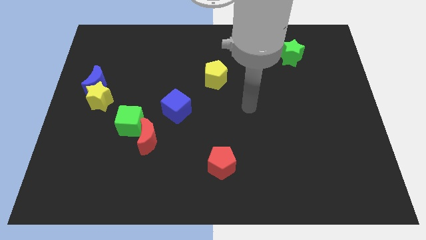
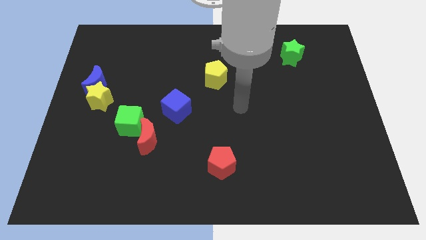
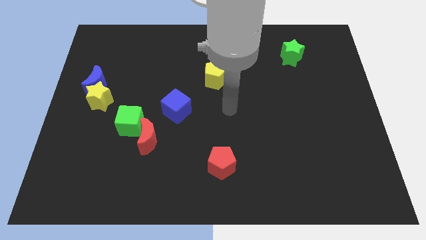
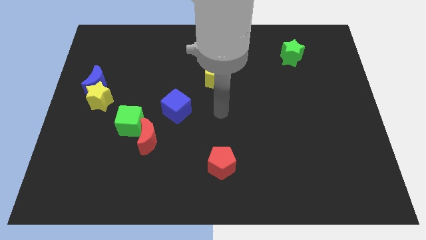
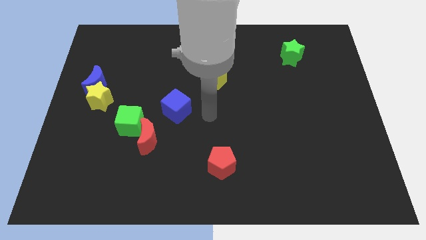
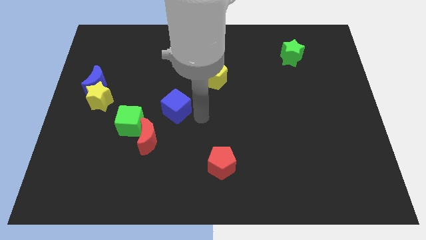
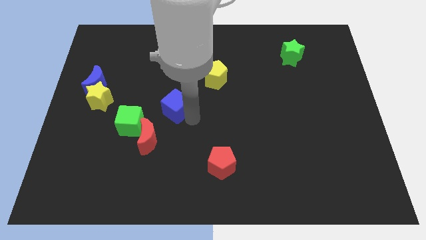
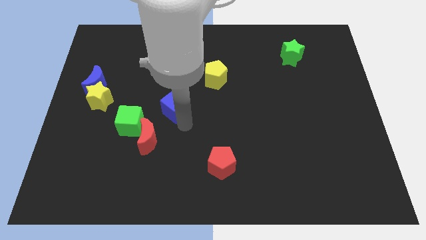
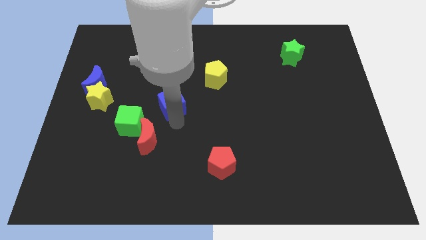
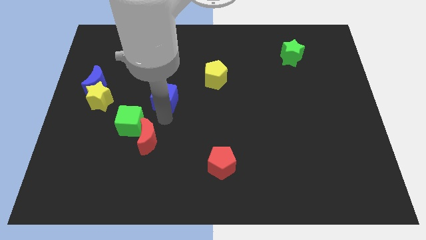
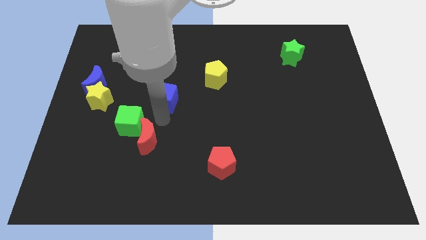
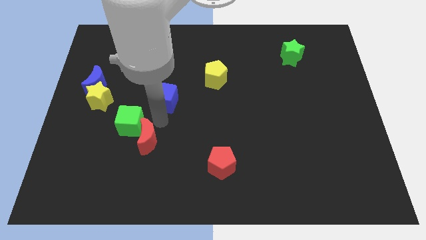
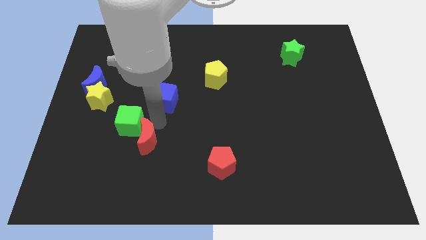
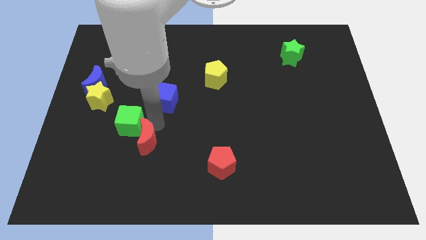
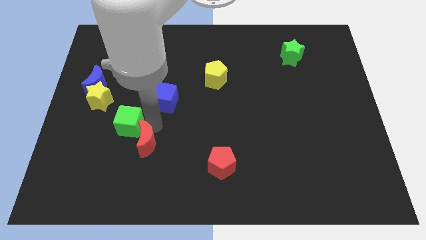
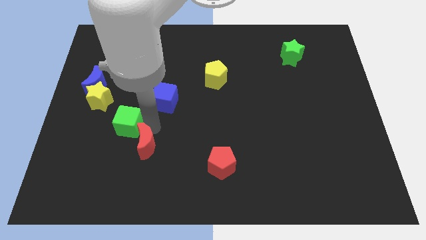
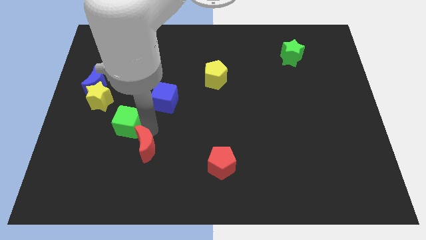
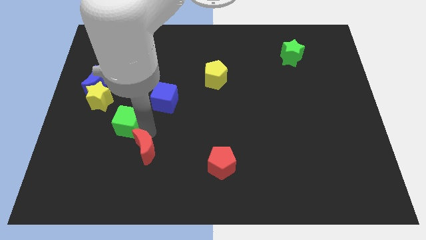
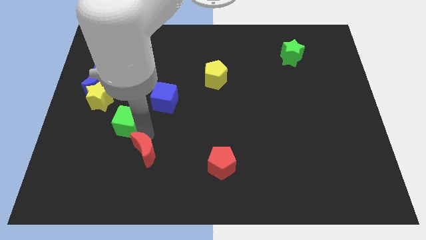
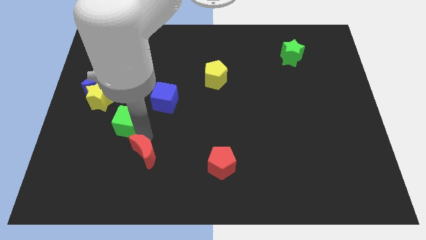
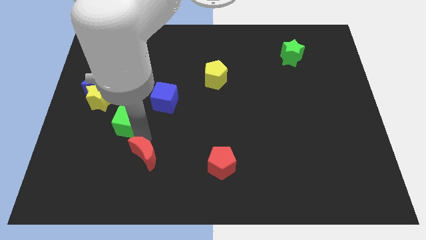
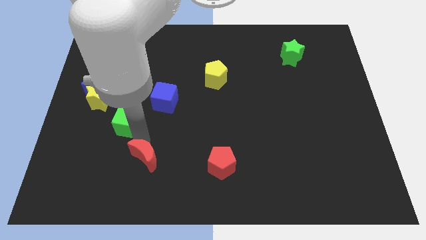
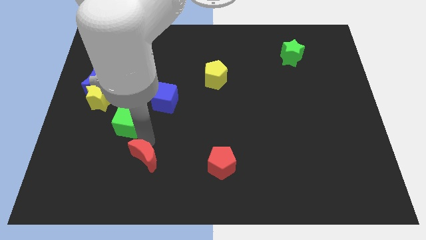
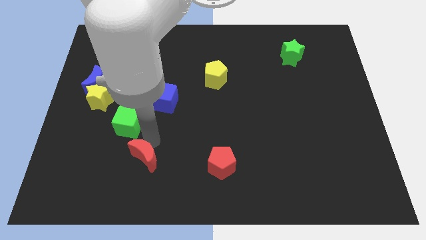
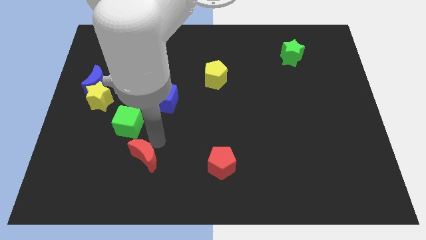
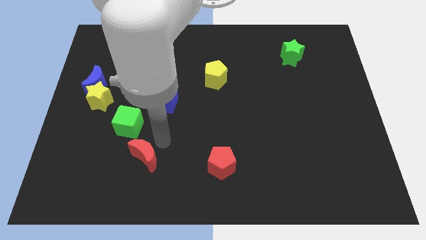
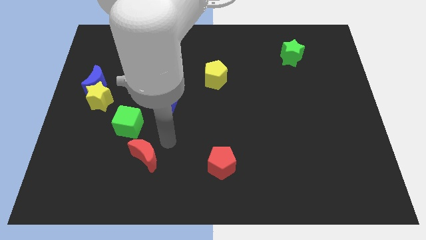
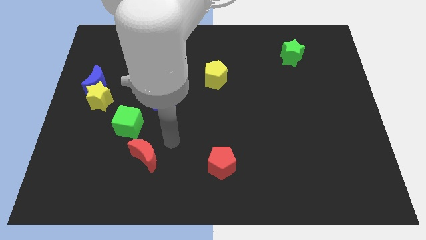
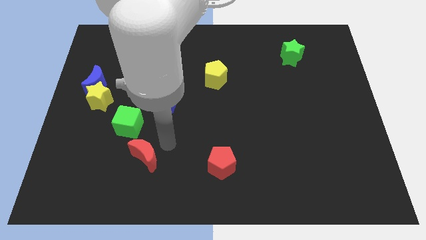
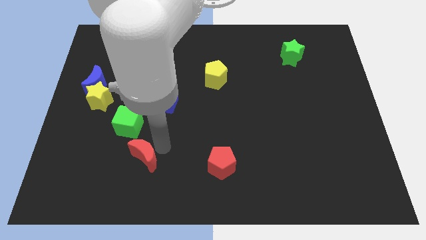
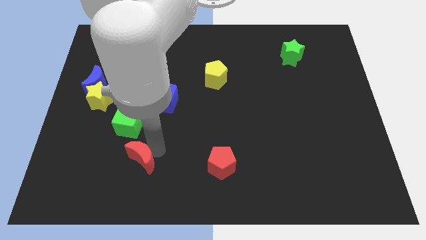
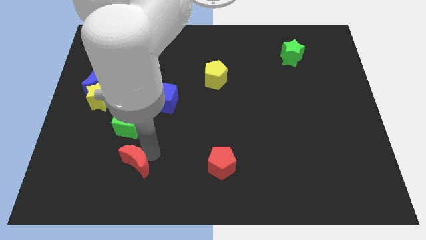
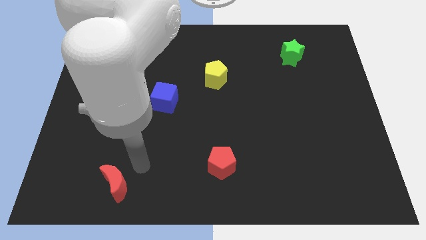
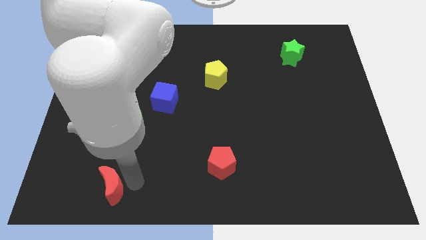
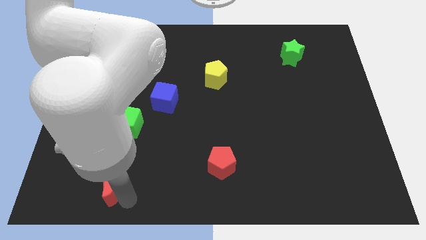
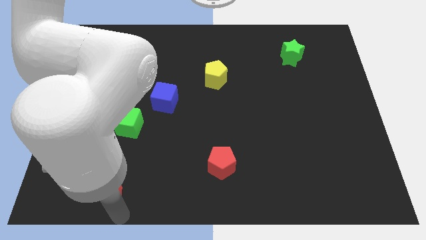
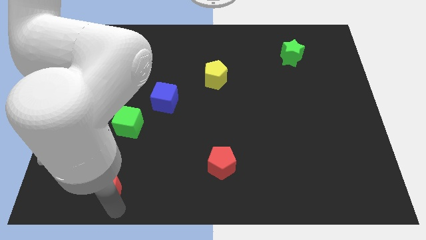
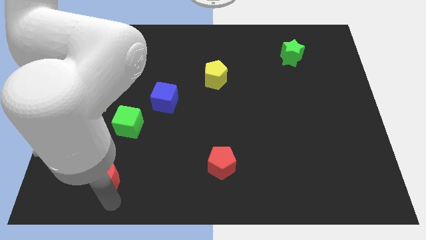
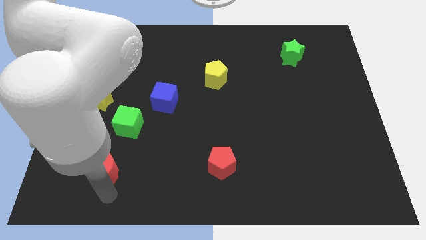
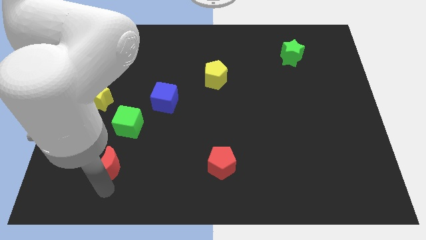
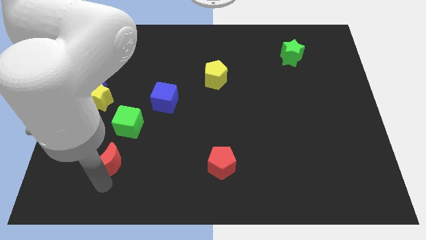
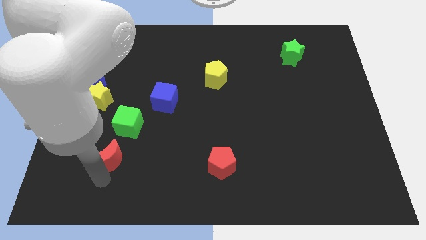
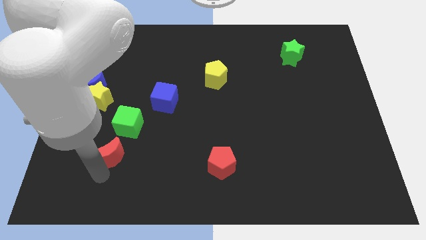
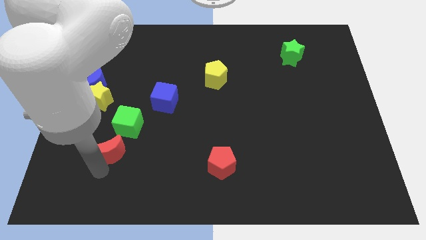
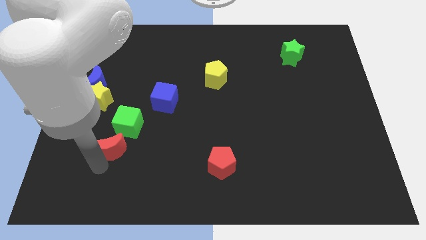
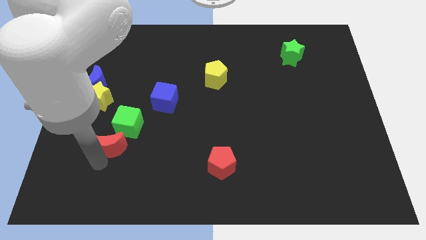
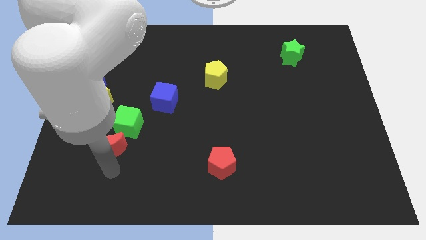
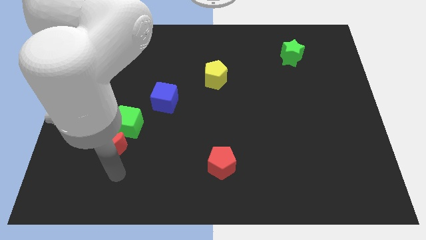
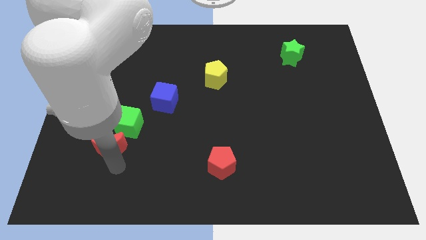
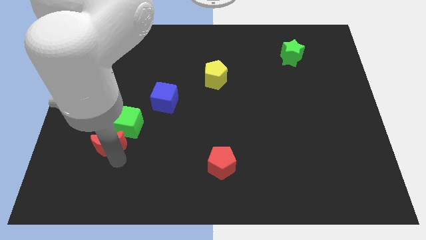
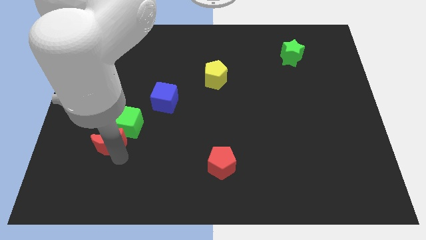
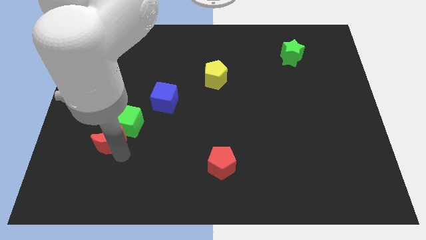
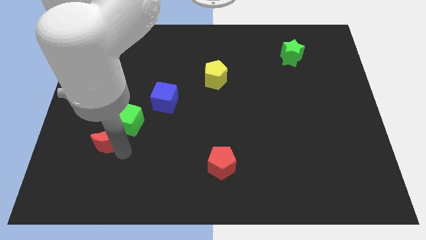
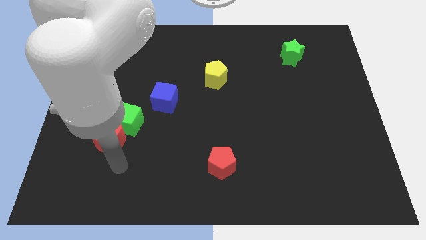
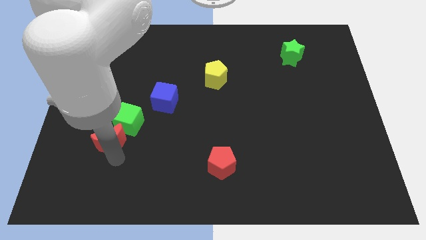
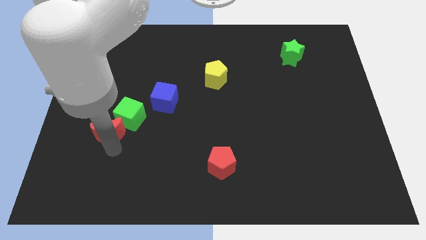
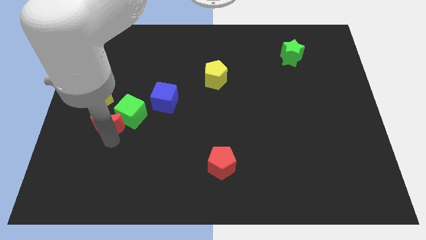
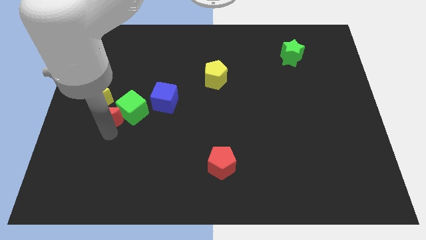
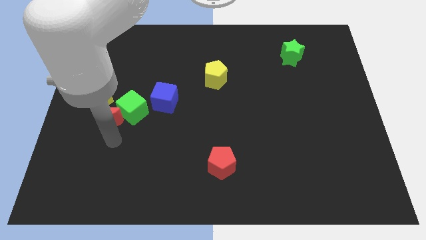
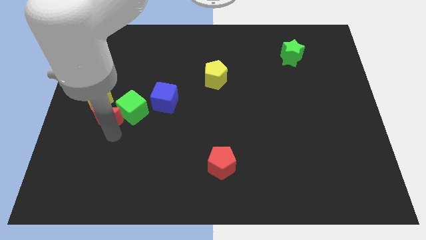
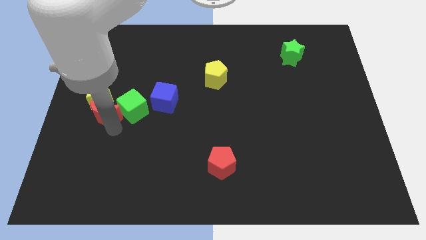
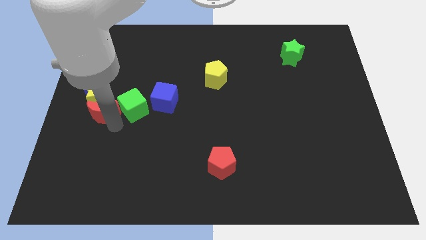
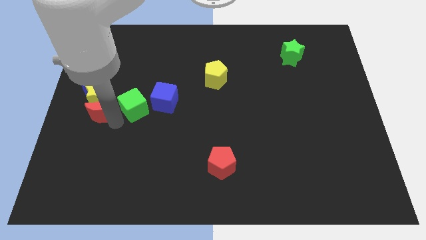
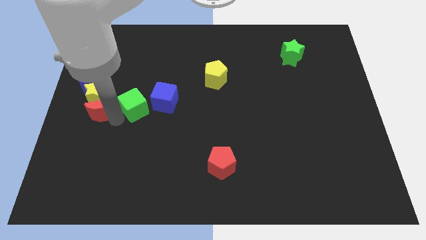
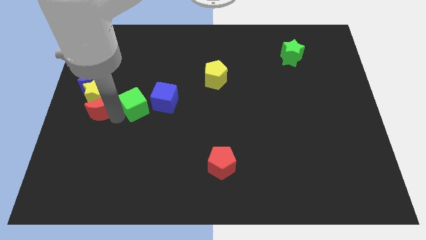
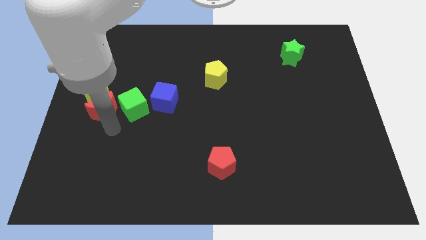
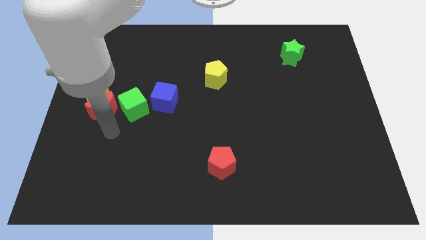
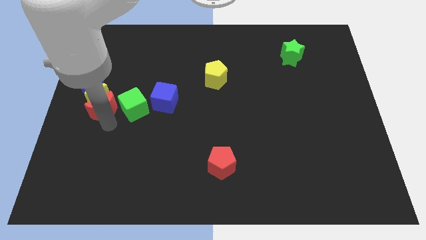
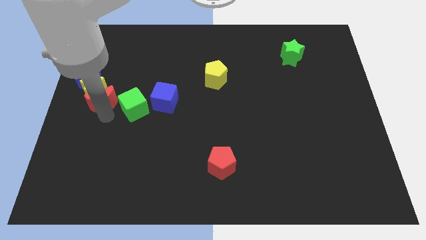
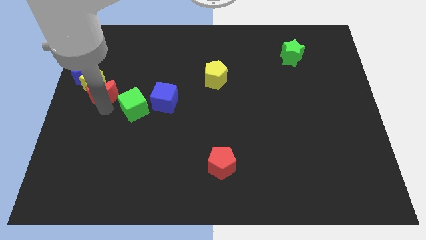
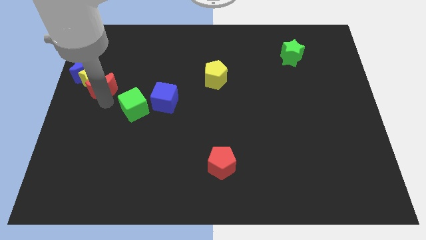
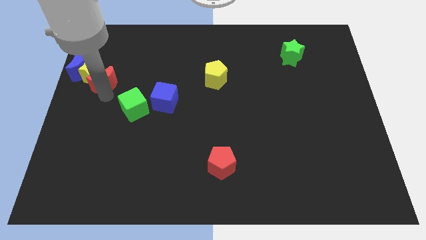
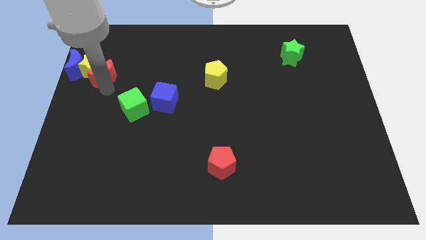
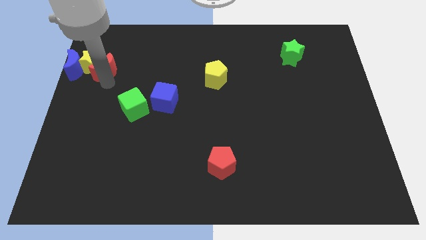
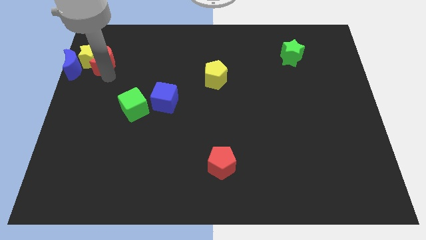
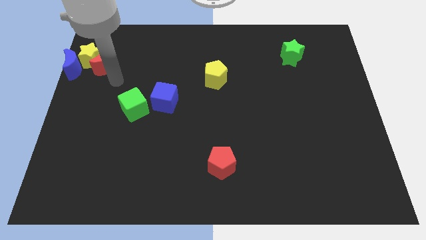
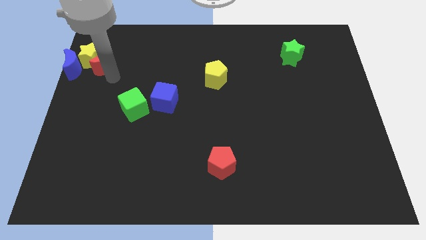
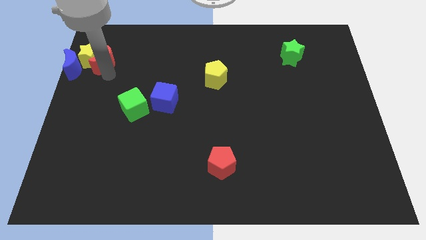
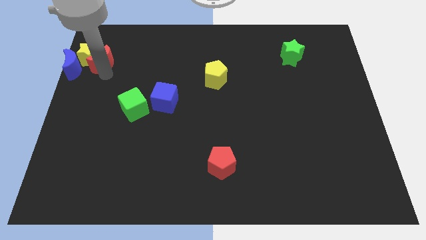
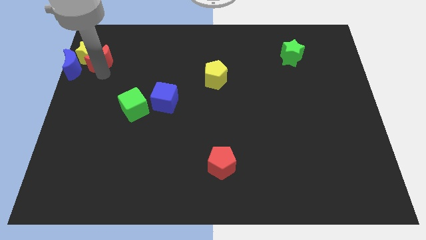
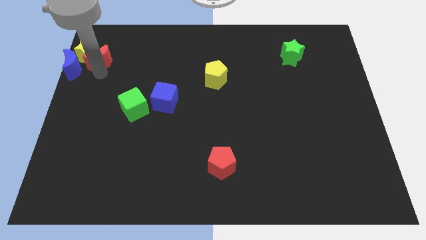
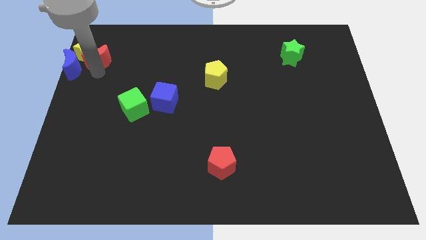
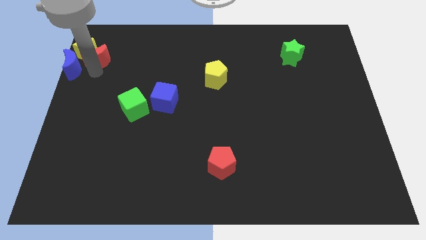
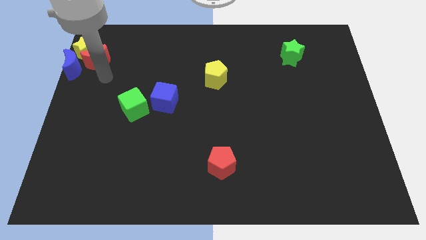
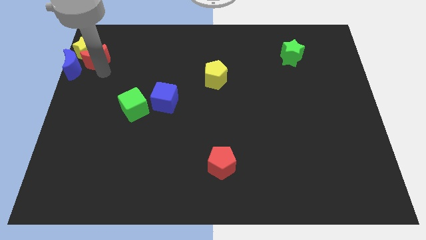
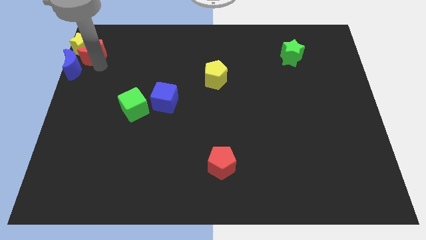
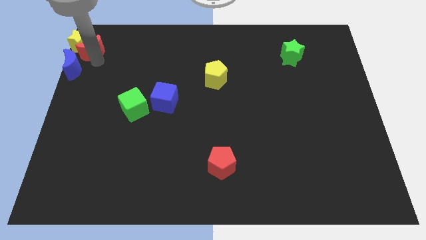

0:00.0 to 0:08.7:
move the red moon to the top left of the board
